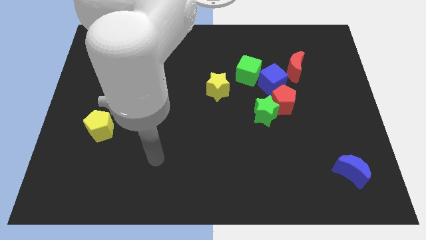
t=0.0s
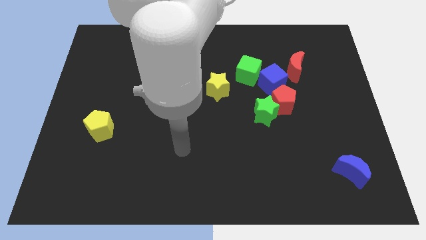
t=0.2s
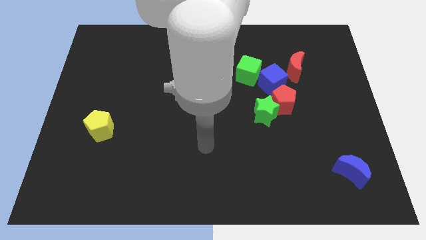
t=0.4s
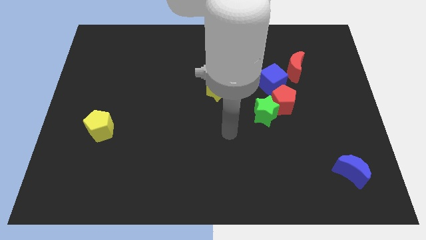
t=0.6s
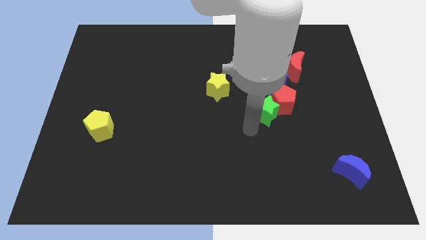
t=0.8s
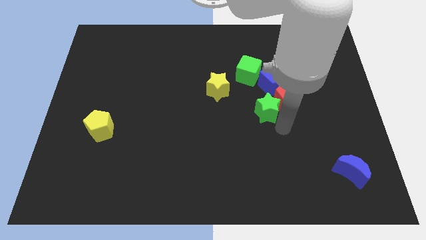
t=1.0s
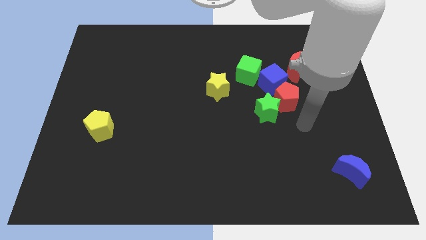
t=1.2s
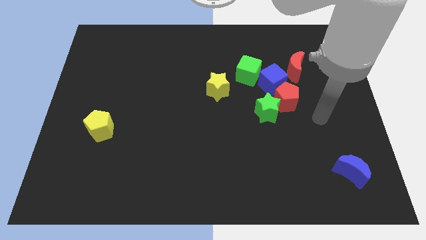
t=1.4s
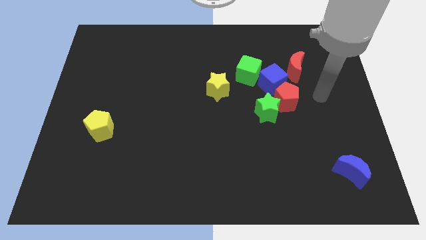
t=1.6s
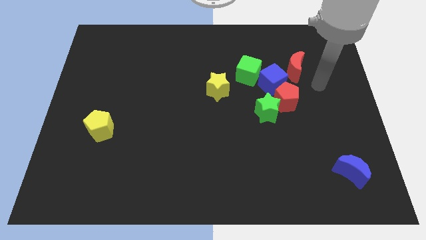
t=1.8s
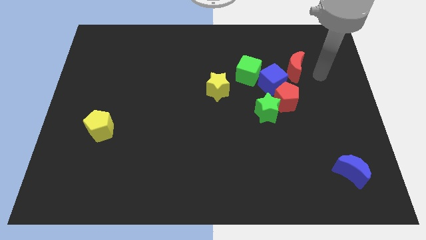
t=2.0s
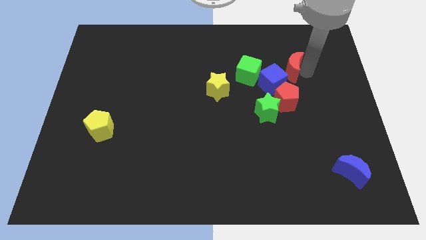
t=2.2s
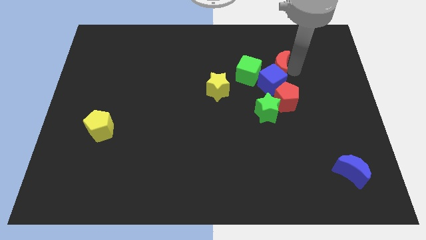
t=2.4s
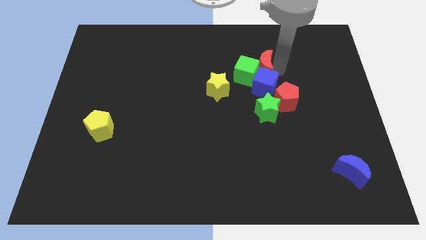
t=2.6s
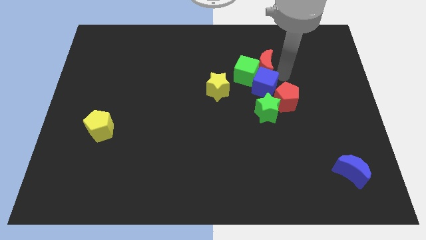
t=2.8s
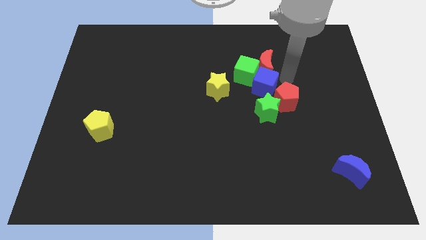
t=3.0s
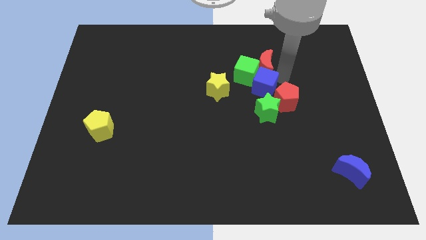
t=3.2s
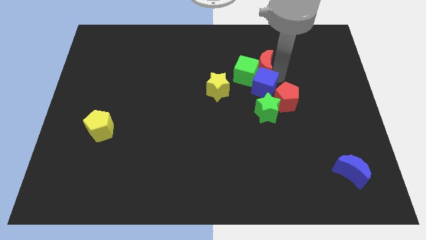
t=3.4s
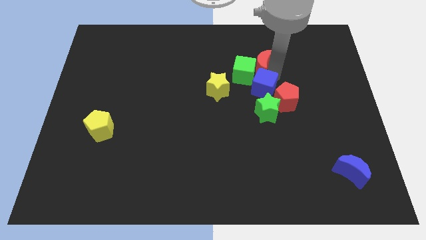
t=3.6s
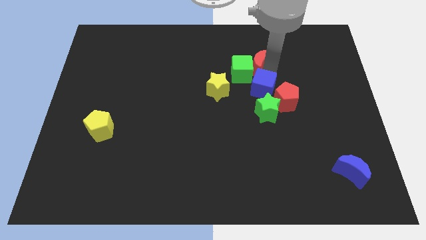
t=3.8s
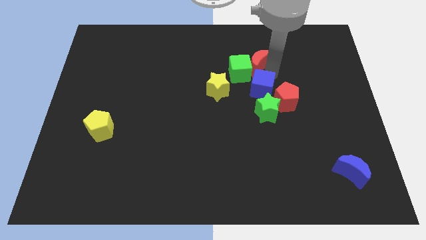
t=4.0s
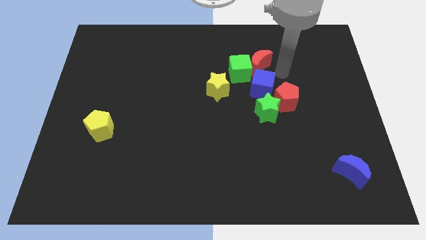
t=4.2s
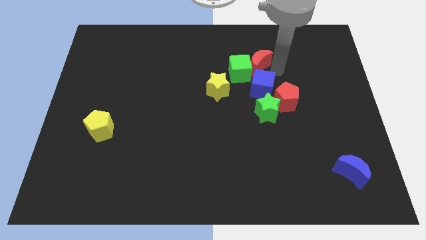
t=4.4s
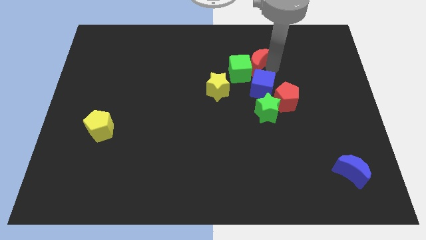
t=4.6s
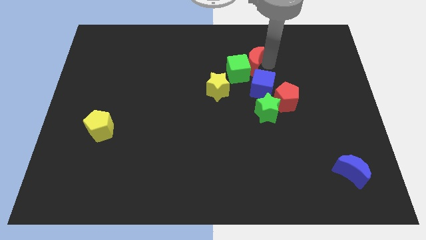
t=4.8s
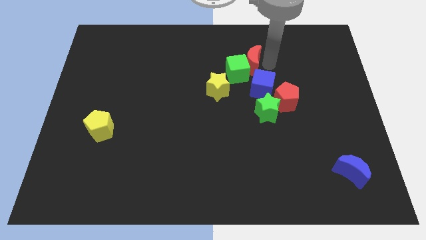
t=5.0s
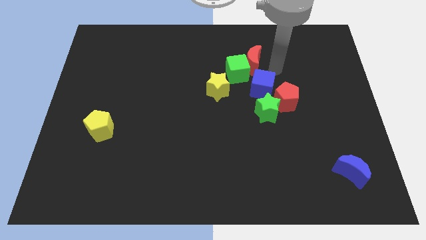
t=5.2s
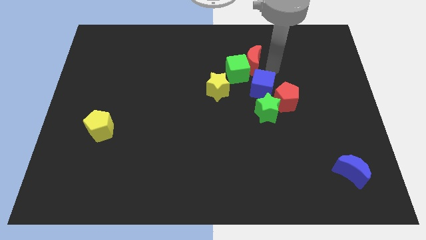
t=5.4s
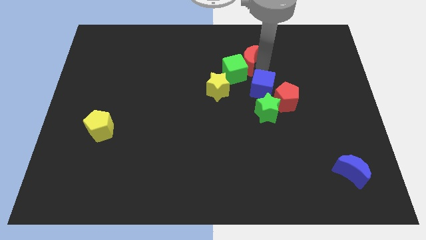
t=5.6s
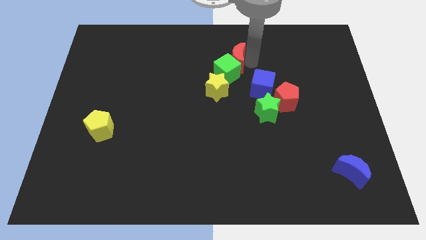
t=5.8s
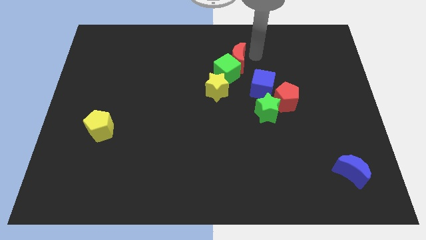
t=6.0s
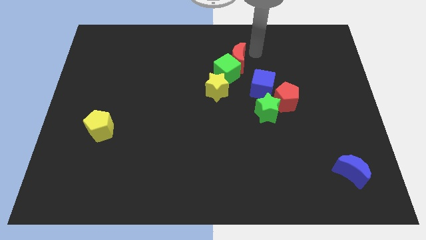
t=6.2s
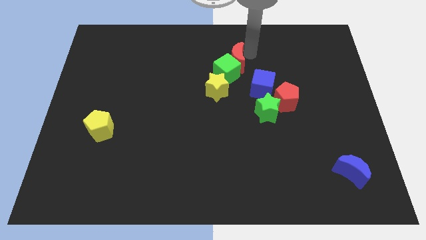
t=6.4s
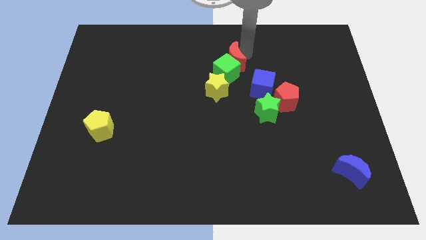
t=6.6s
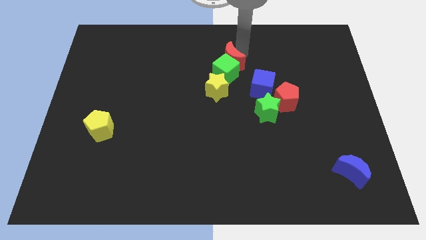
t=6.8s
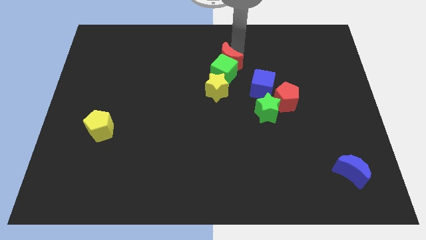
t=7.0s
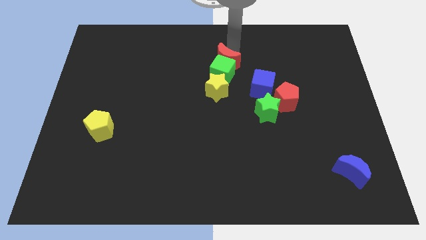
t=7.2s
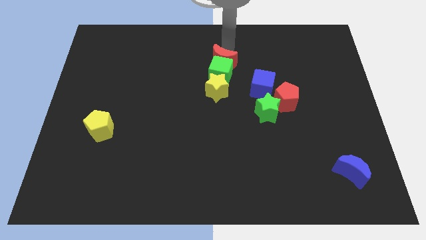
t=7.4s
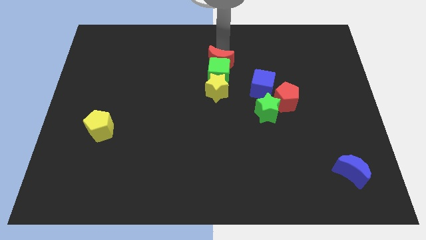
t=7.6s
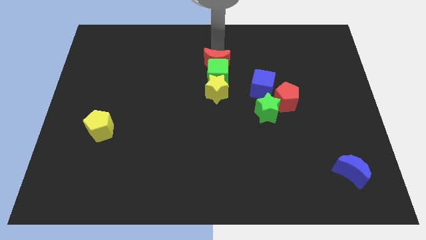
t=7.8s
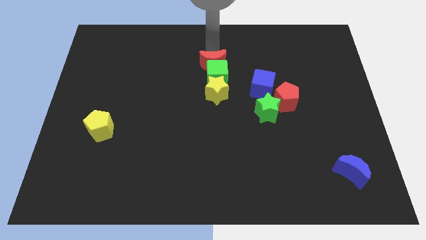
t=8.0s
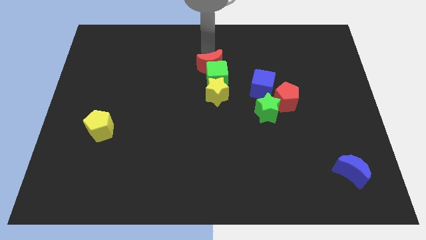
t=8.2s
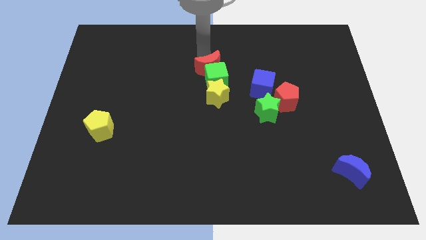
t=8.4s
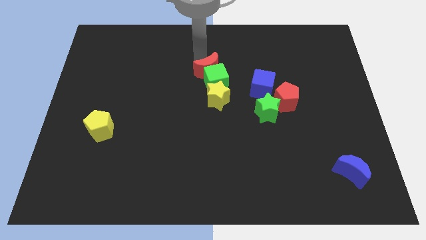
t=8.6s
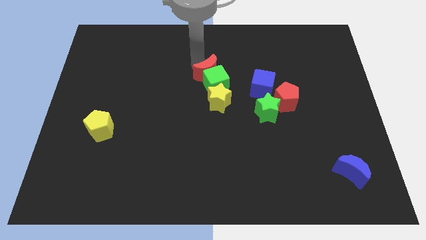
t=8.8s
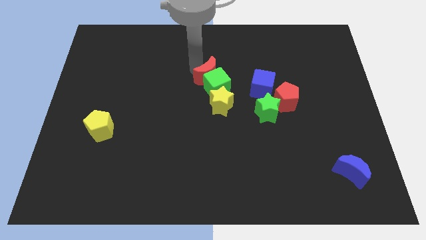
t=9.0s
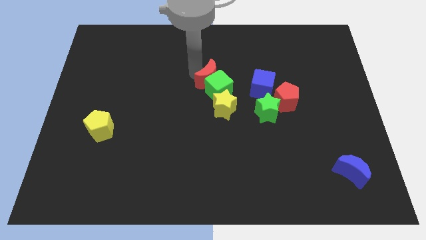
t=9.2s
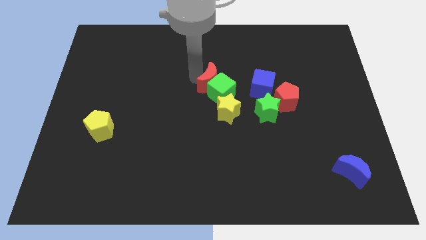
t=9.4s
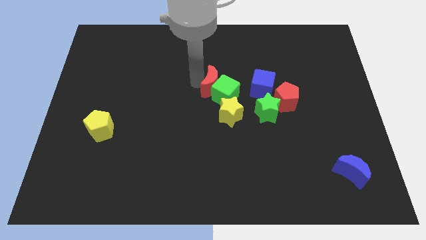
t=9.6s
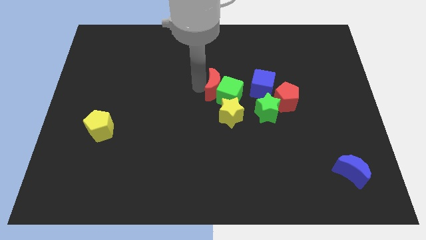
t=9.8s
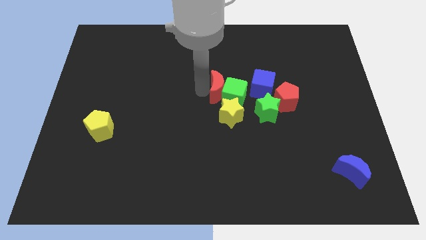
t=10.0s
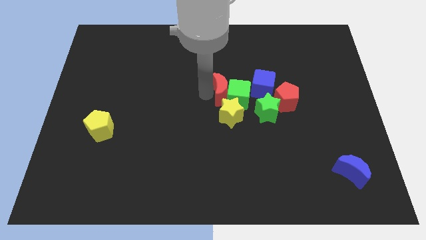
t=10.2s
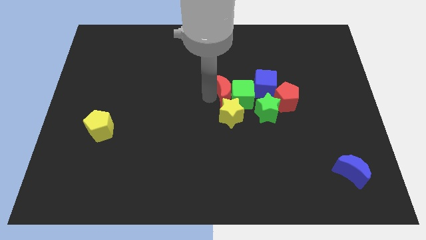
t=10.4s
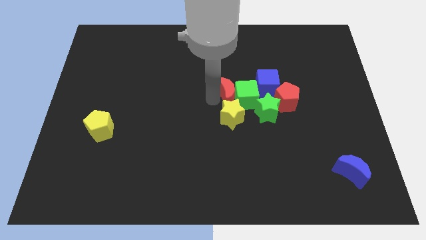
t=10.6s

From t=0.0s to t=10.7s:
move the red moon to the bottom left side of the blue cube
